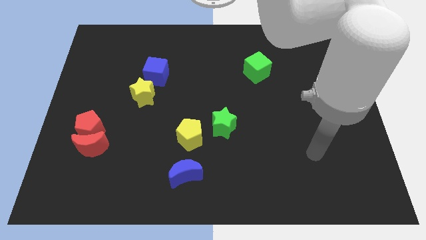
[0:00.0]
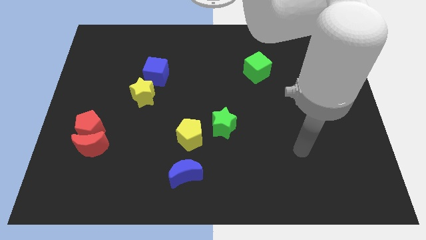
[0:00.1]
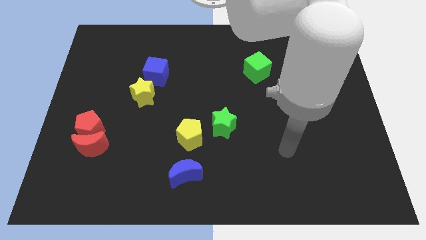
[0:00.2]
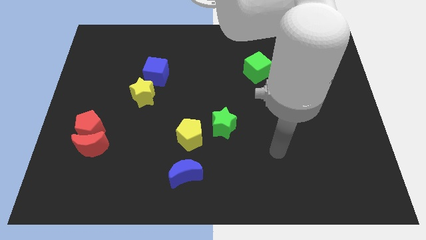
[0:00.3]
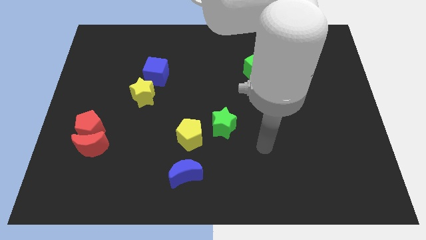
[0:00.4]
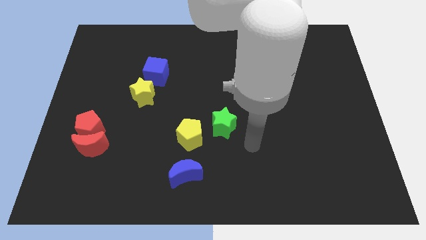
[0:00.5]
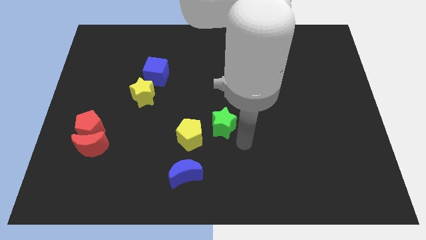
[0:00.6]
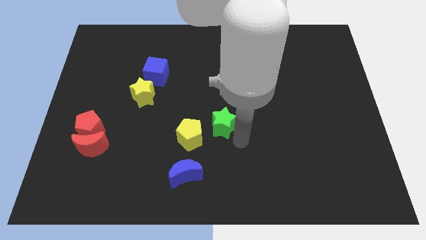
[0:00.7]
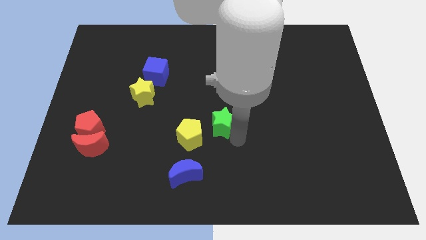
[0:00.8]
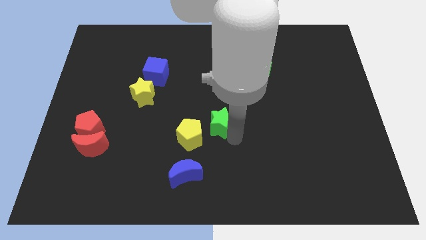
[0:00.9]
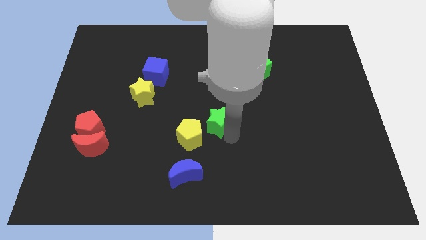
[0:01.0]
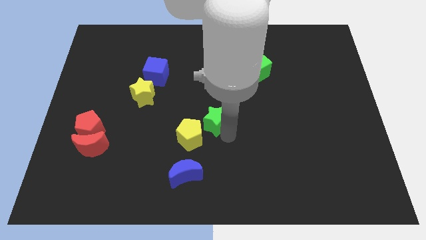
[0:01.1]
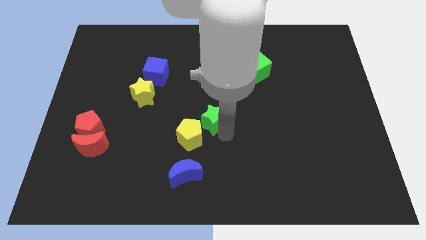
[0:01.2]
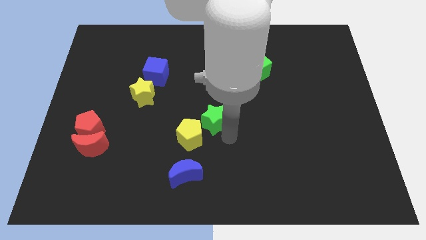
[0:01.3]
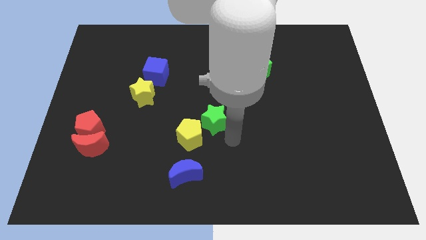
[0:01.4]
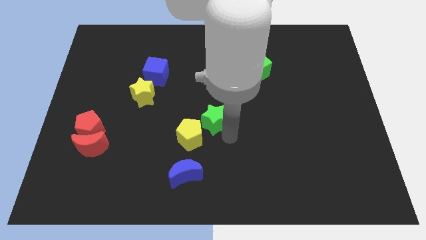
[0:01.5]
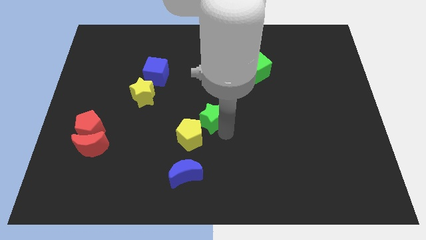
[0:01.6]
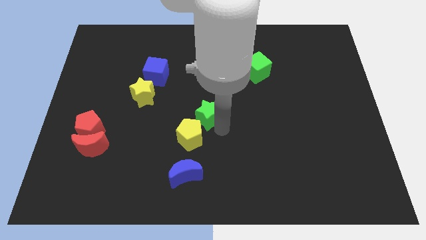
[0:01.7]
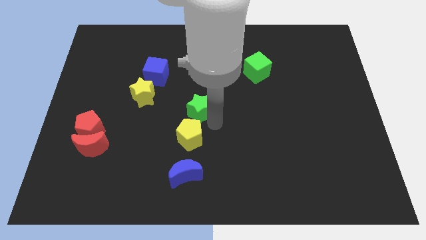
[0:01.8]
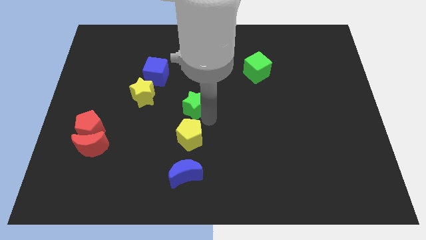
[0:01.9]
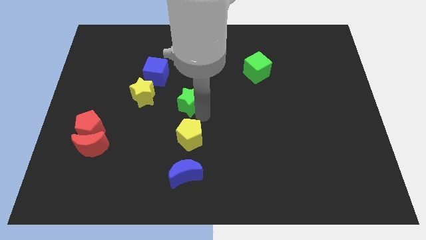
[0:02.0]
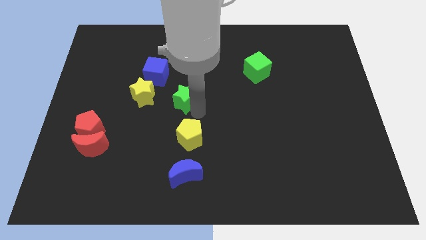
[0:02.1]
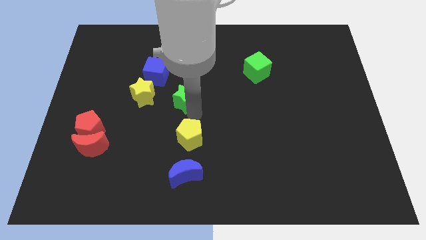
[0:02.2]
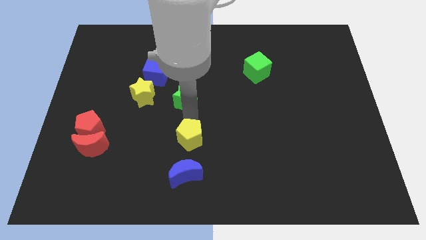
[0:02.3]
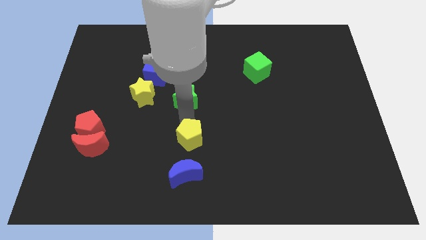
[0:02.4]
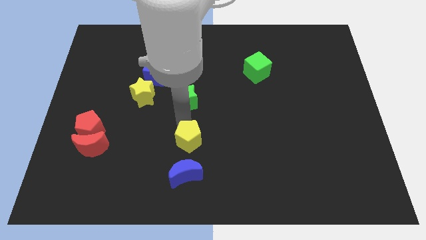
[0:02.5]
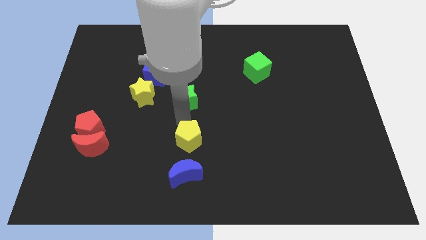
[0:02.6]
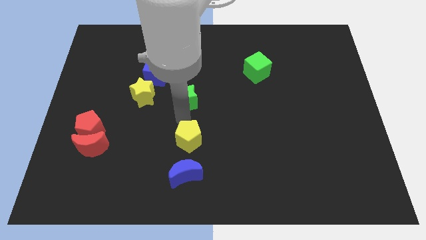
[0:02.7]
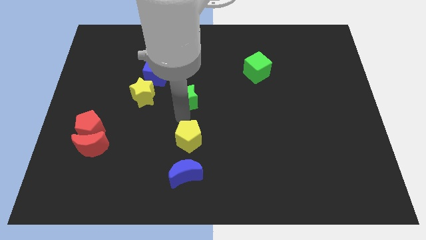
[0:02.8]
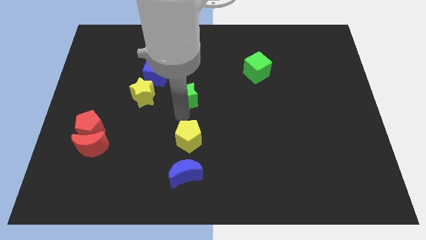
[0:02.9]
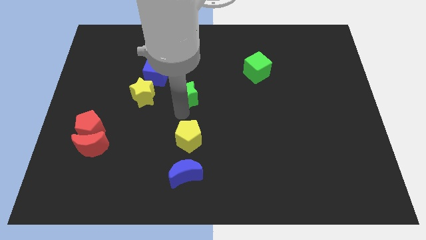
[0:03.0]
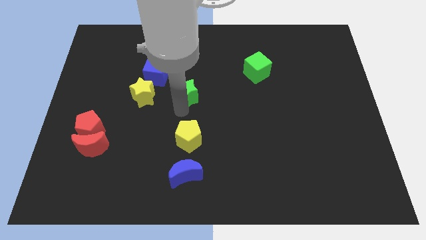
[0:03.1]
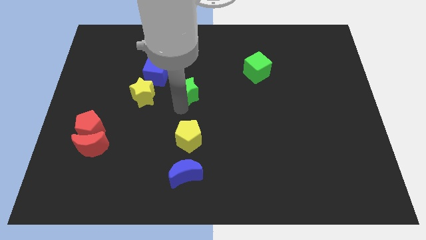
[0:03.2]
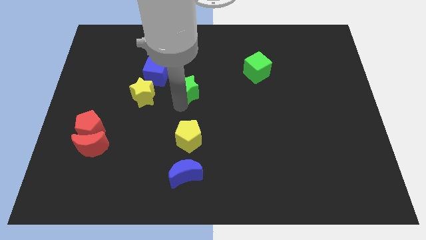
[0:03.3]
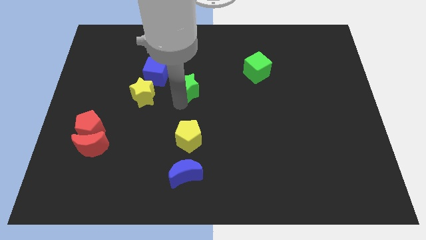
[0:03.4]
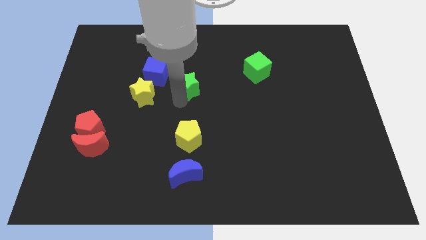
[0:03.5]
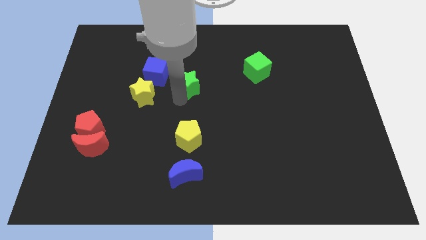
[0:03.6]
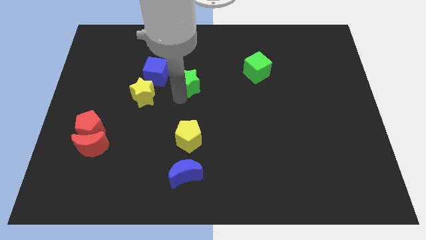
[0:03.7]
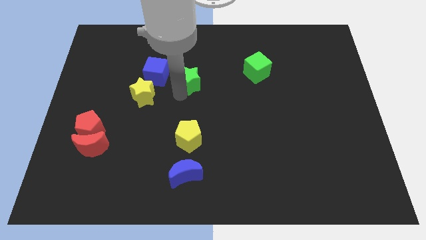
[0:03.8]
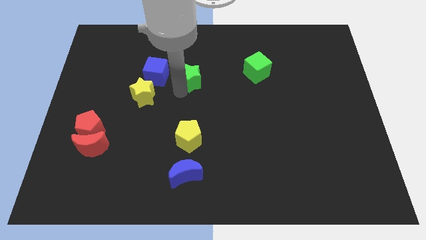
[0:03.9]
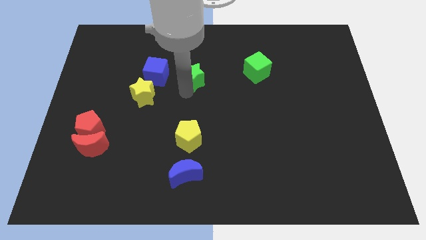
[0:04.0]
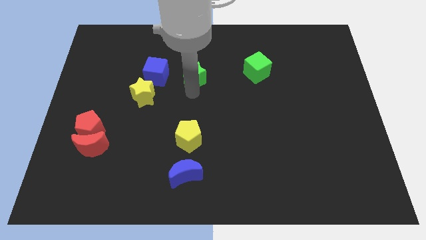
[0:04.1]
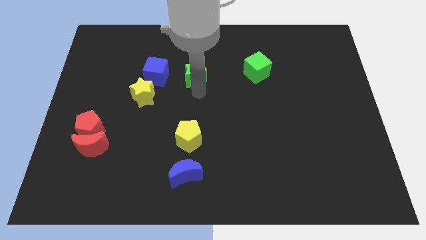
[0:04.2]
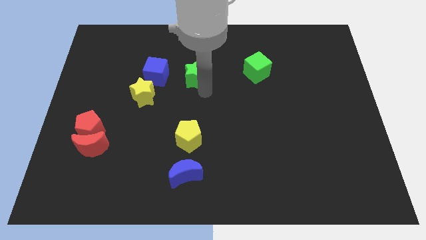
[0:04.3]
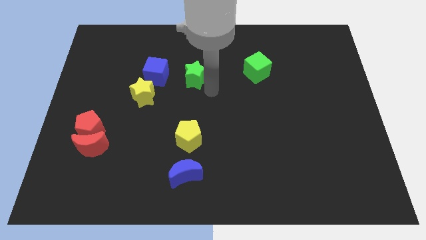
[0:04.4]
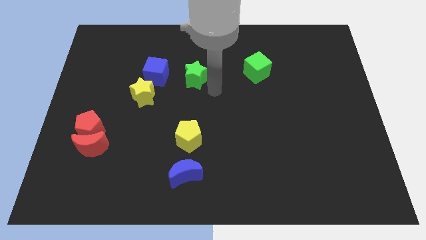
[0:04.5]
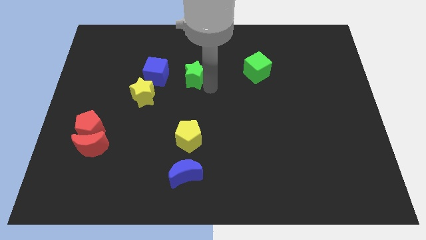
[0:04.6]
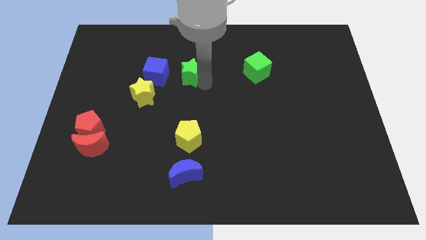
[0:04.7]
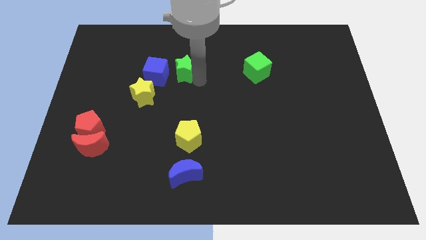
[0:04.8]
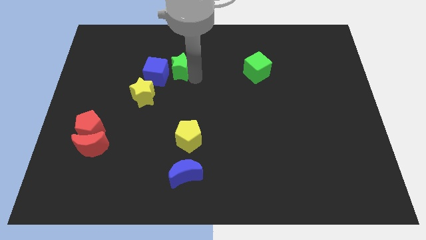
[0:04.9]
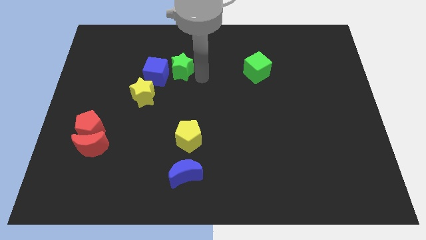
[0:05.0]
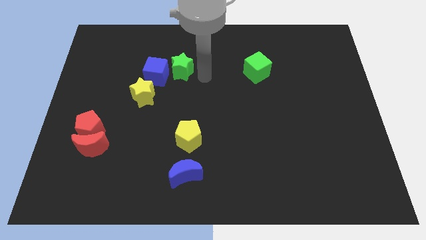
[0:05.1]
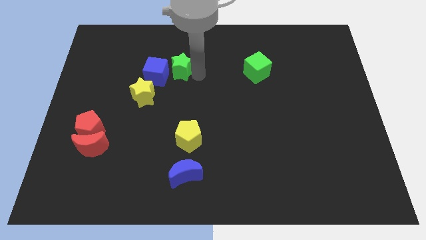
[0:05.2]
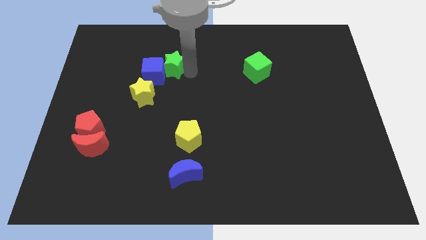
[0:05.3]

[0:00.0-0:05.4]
push the green star up and left

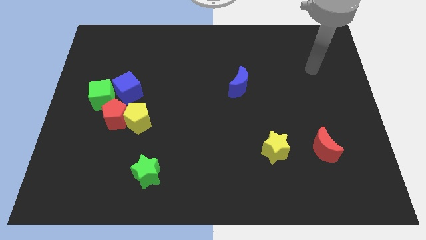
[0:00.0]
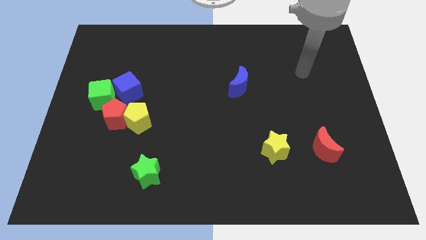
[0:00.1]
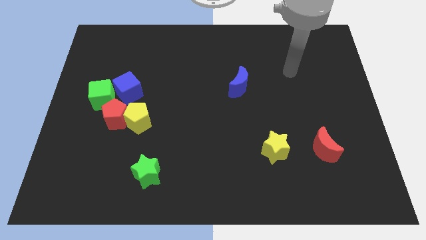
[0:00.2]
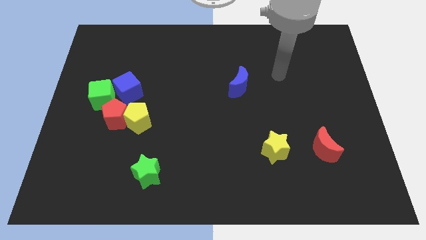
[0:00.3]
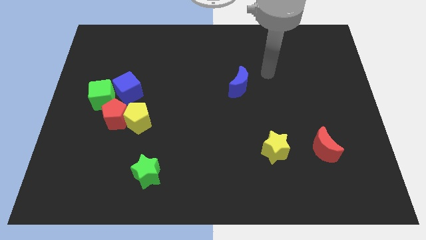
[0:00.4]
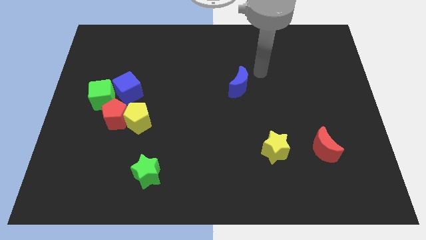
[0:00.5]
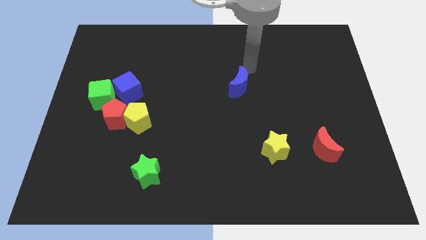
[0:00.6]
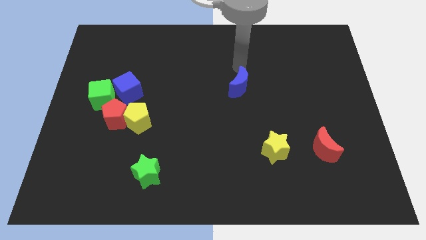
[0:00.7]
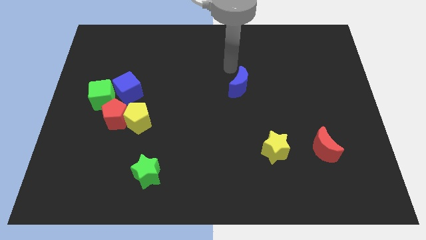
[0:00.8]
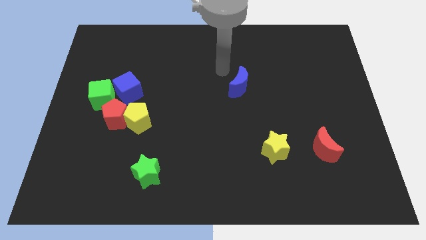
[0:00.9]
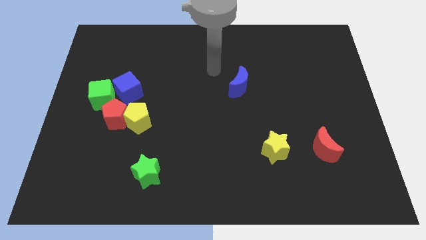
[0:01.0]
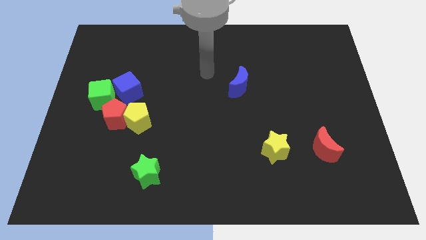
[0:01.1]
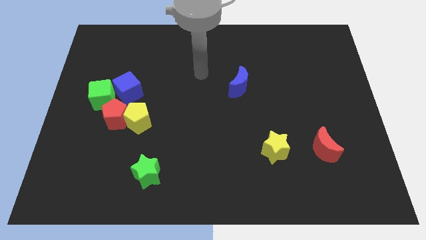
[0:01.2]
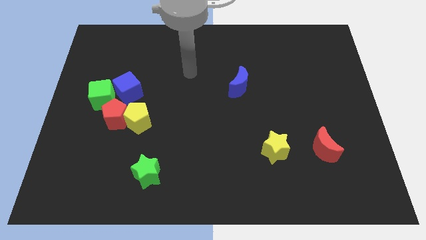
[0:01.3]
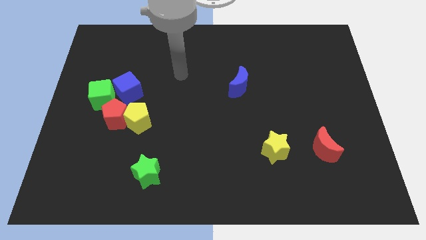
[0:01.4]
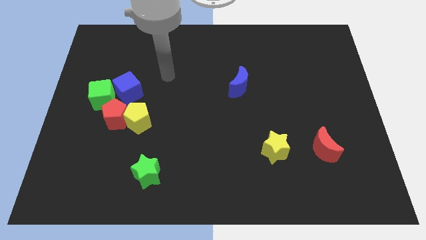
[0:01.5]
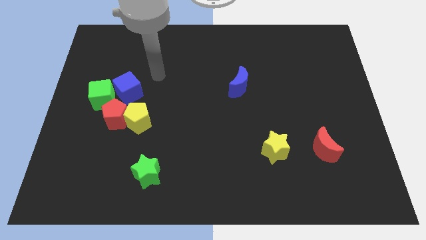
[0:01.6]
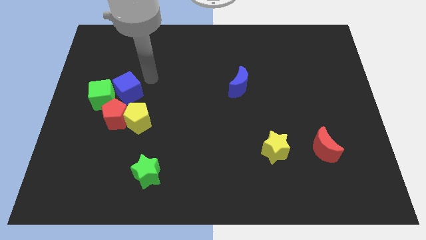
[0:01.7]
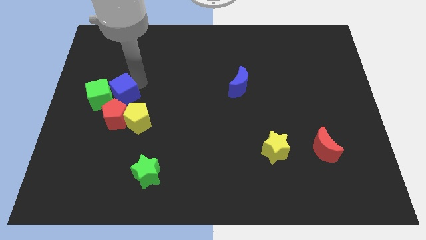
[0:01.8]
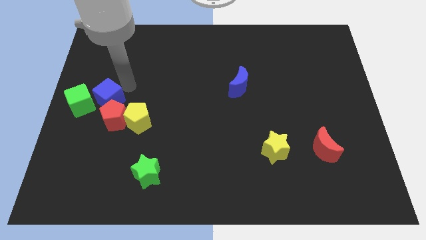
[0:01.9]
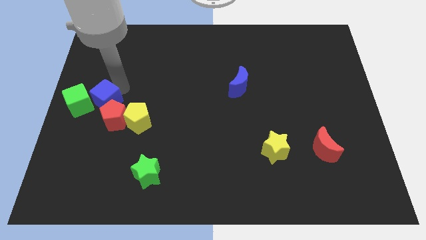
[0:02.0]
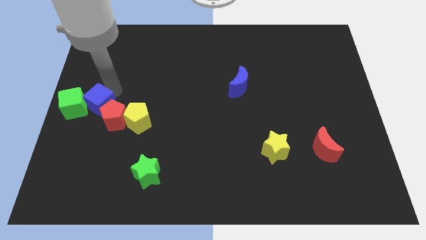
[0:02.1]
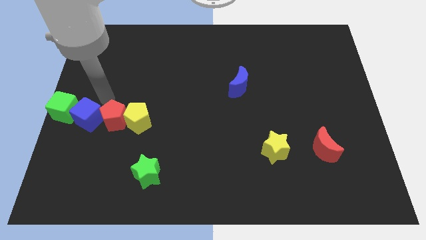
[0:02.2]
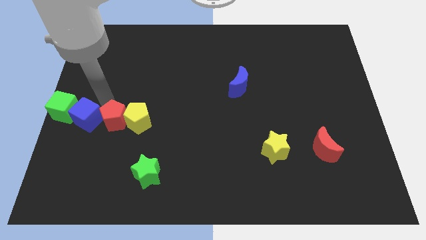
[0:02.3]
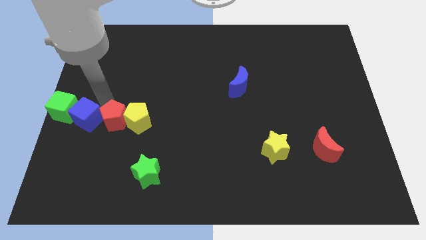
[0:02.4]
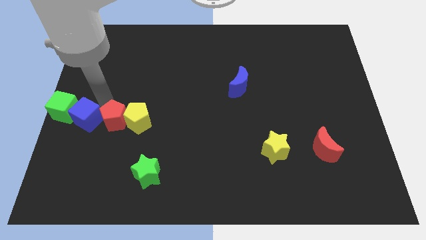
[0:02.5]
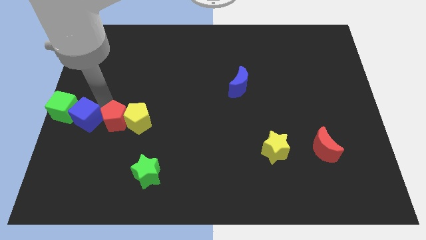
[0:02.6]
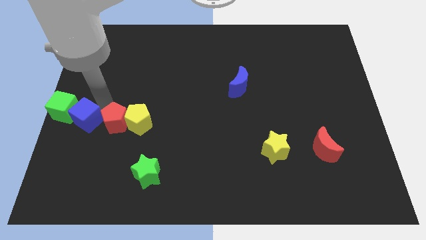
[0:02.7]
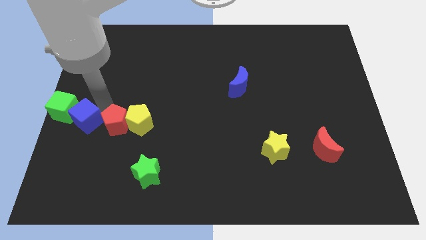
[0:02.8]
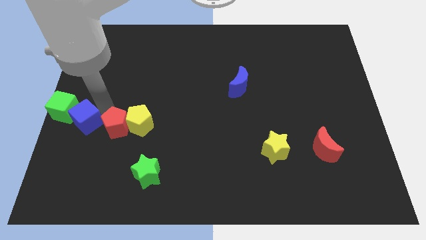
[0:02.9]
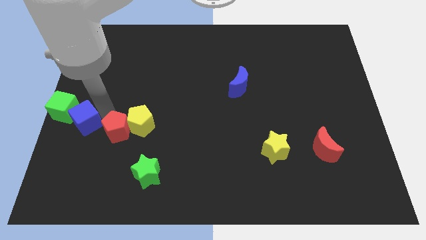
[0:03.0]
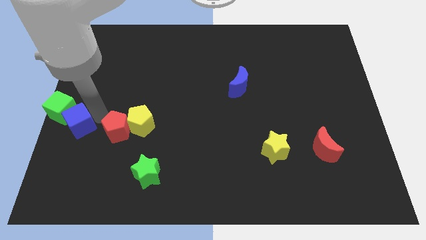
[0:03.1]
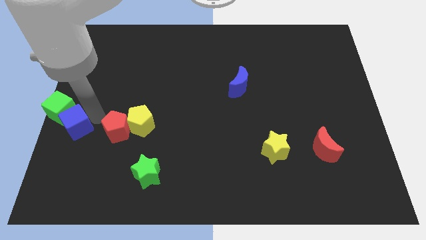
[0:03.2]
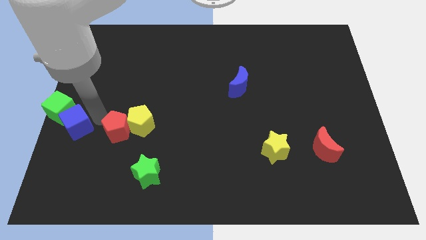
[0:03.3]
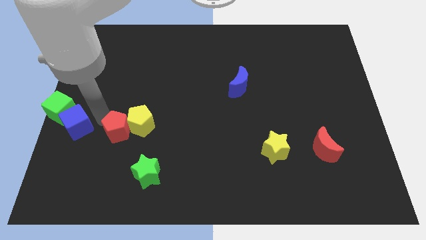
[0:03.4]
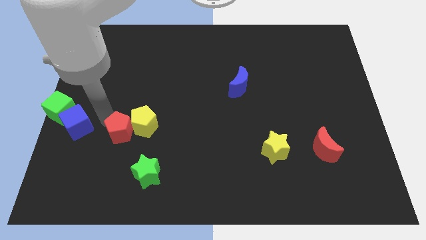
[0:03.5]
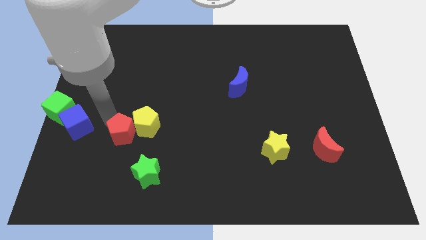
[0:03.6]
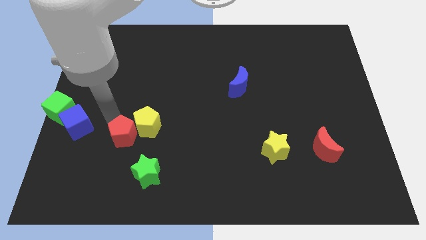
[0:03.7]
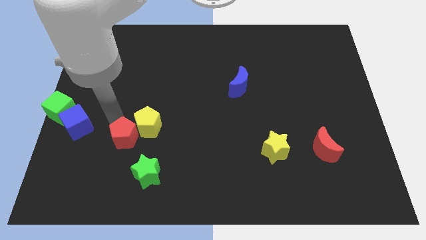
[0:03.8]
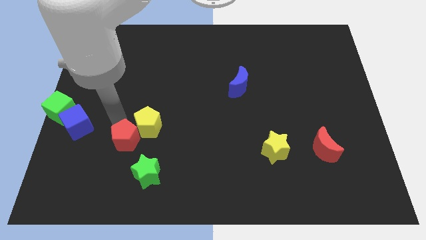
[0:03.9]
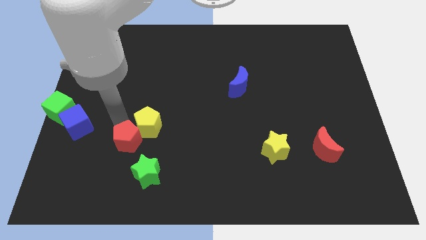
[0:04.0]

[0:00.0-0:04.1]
push the red pentagon a bit downwards and to the right
